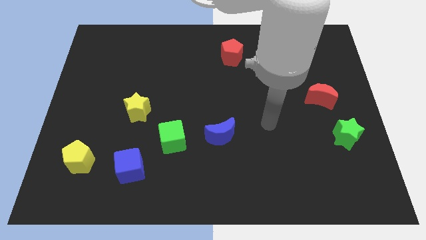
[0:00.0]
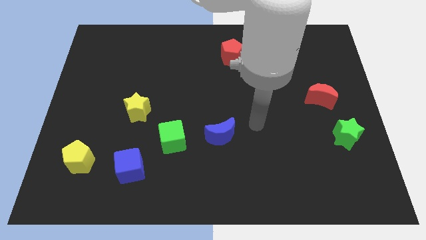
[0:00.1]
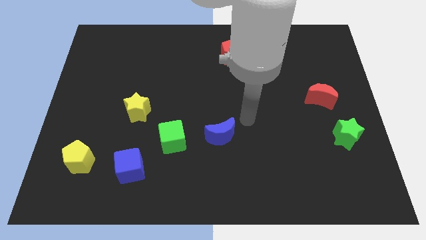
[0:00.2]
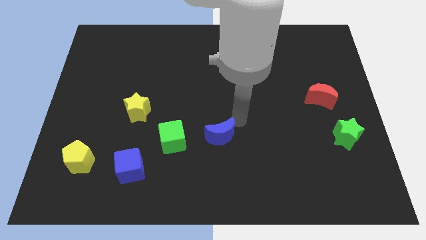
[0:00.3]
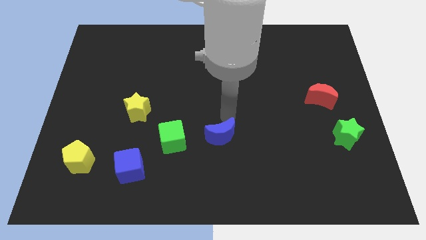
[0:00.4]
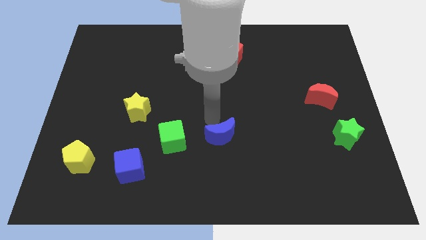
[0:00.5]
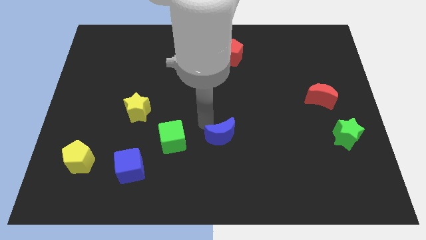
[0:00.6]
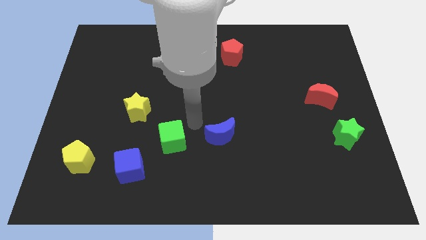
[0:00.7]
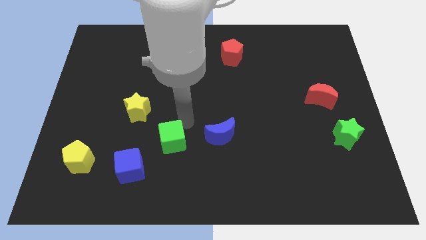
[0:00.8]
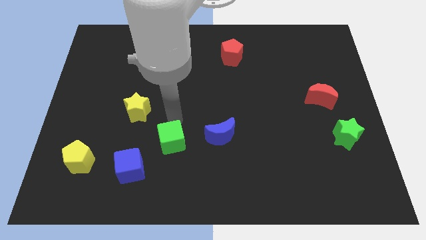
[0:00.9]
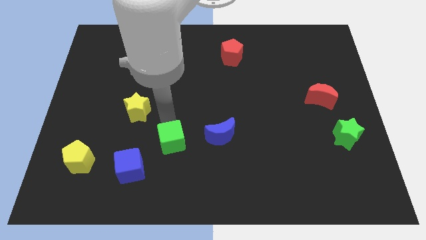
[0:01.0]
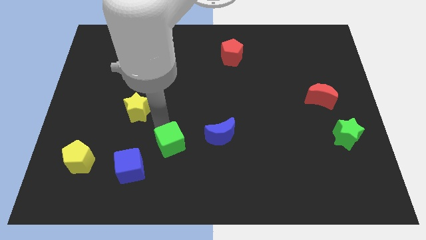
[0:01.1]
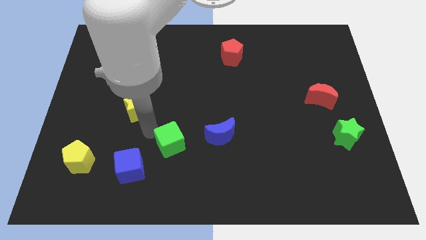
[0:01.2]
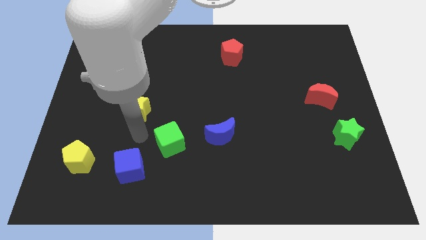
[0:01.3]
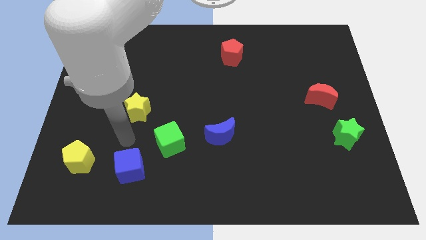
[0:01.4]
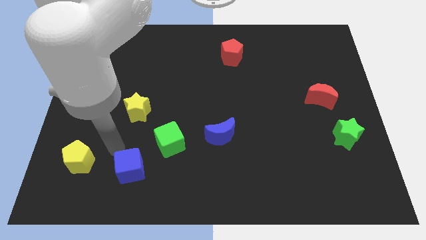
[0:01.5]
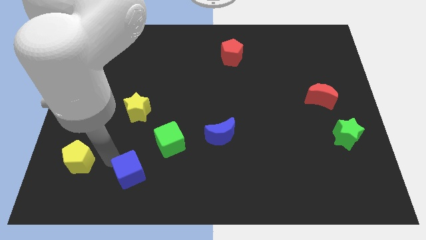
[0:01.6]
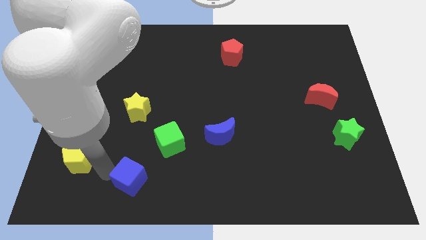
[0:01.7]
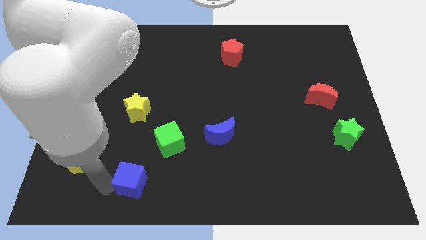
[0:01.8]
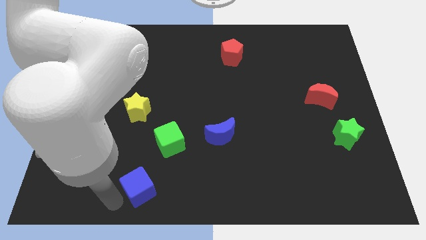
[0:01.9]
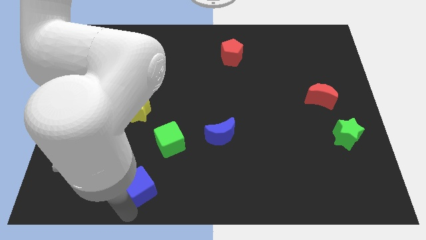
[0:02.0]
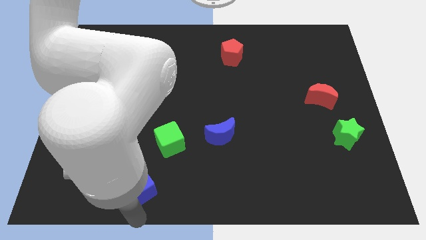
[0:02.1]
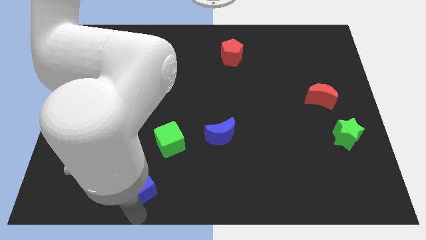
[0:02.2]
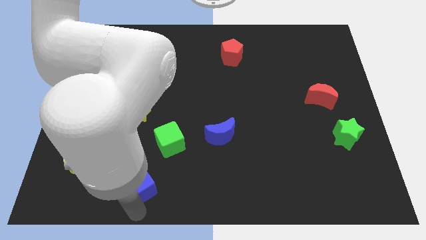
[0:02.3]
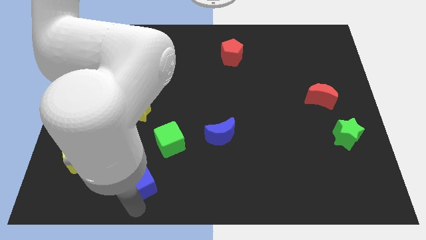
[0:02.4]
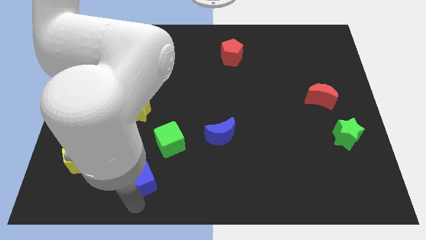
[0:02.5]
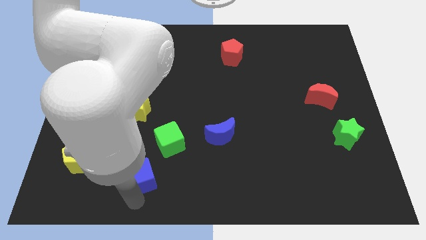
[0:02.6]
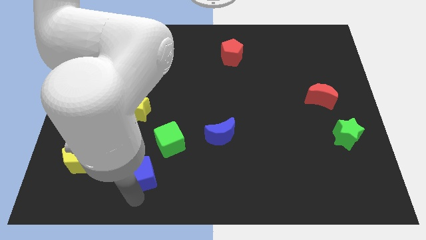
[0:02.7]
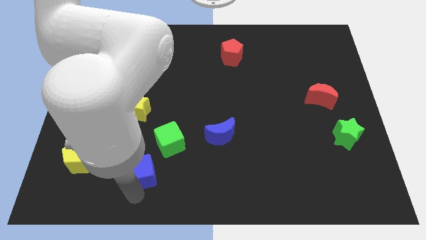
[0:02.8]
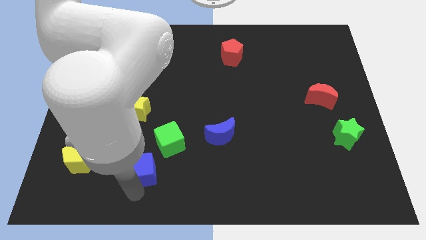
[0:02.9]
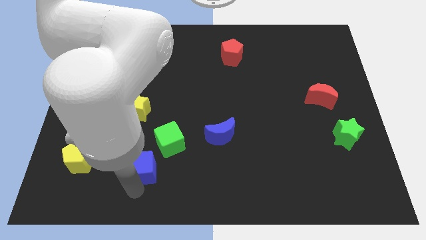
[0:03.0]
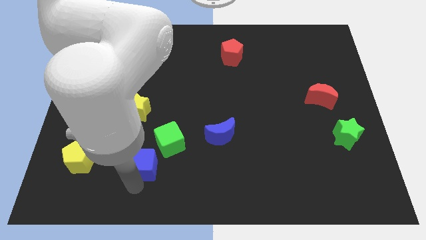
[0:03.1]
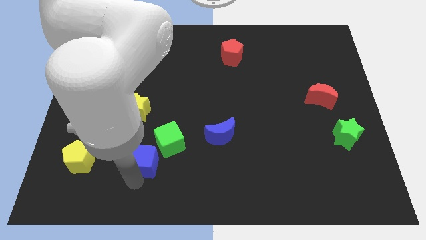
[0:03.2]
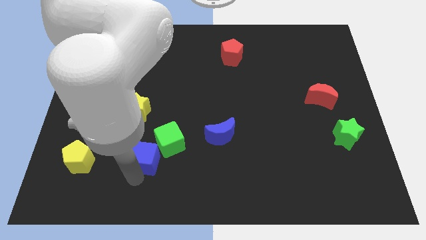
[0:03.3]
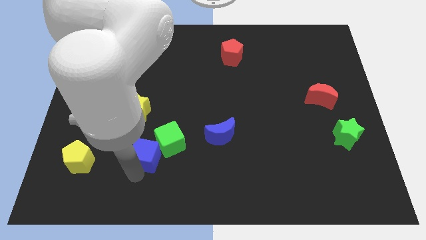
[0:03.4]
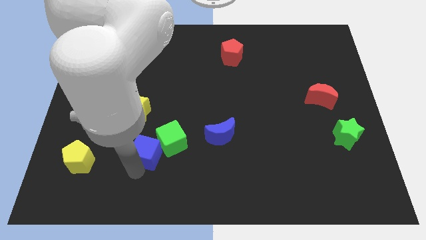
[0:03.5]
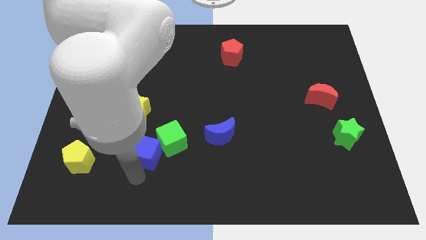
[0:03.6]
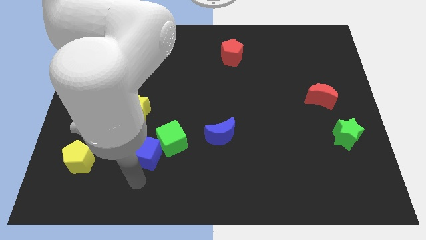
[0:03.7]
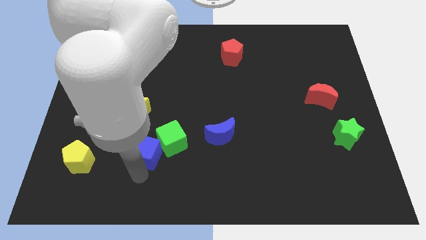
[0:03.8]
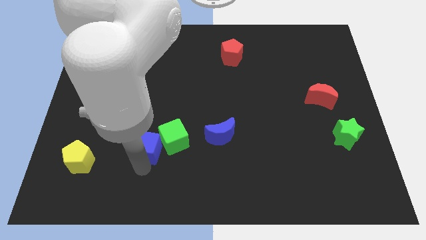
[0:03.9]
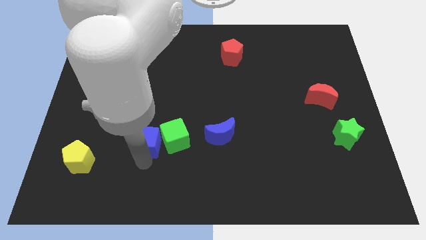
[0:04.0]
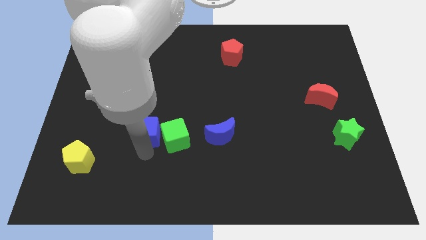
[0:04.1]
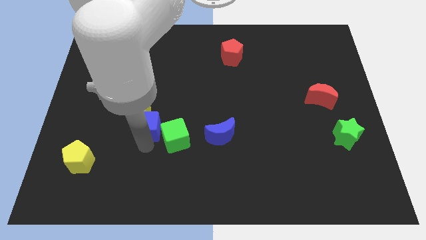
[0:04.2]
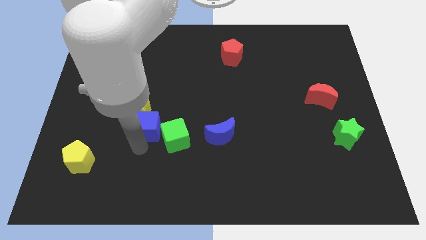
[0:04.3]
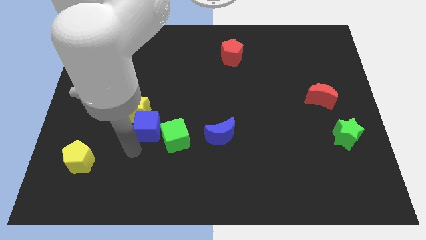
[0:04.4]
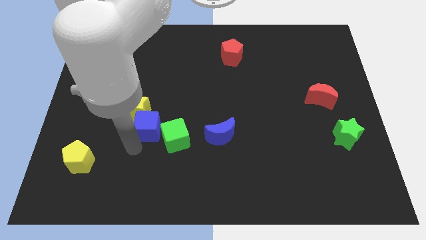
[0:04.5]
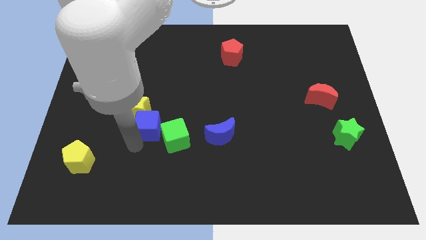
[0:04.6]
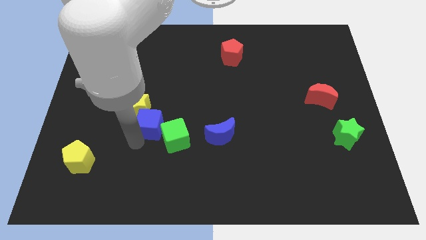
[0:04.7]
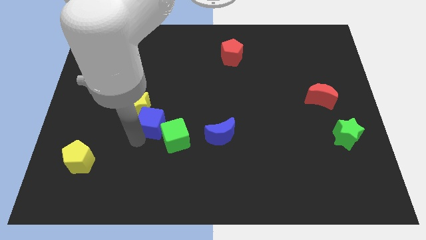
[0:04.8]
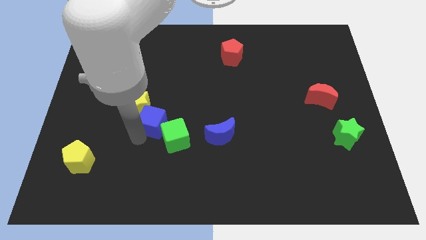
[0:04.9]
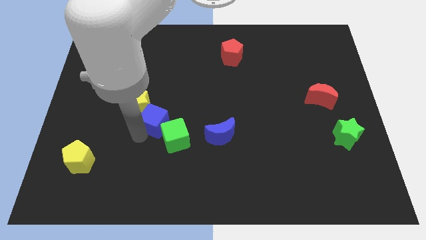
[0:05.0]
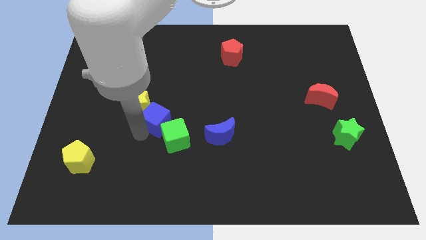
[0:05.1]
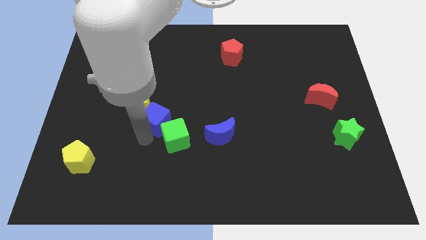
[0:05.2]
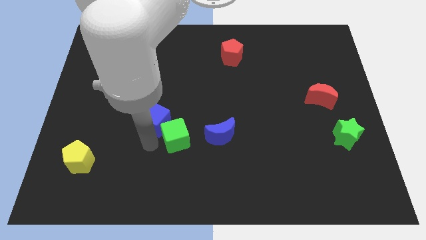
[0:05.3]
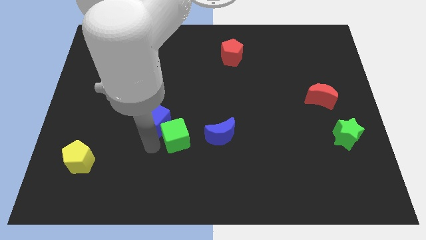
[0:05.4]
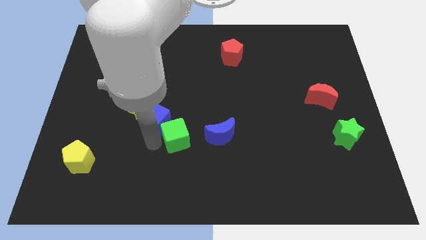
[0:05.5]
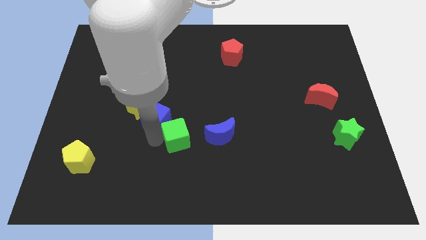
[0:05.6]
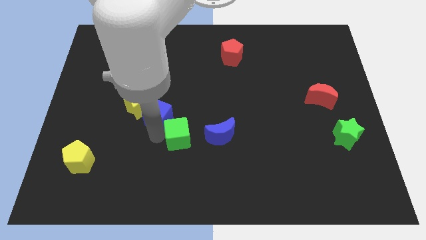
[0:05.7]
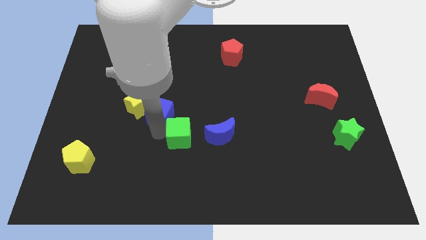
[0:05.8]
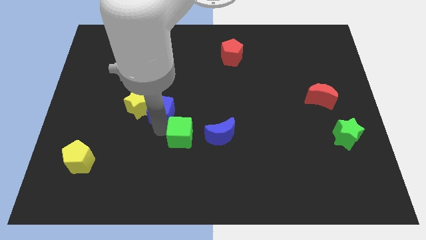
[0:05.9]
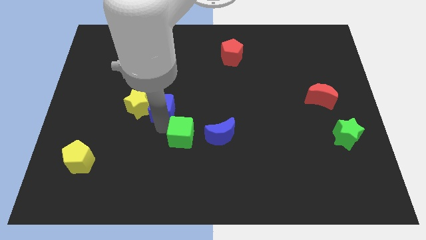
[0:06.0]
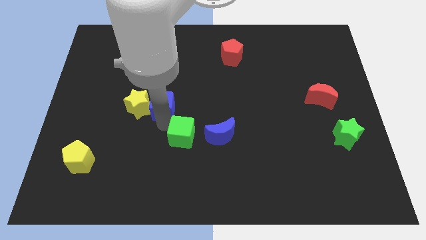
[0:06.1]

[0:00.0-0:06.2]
push the blue cube to the top right of the yellow star

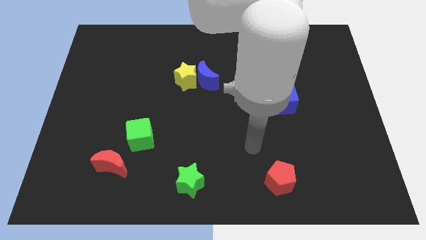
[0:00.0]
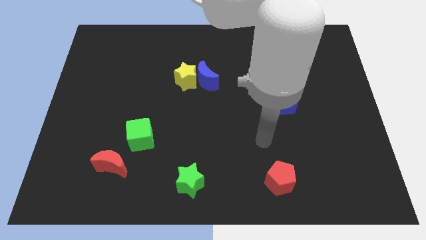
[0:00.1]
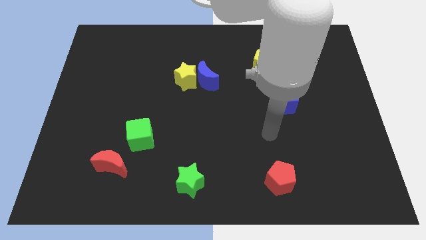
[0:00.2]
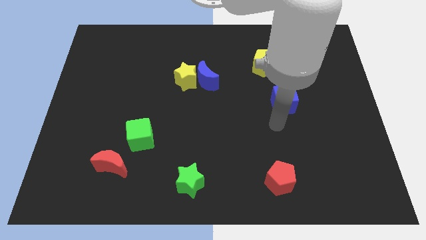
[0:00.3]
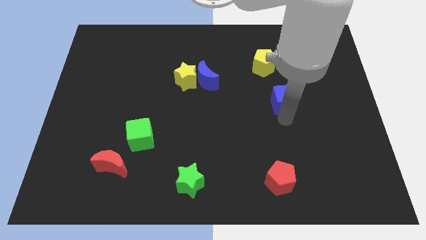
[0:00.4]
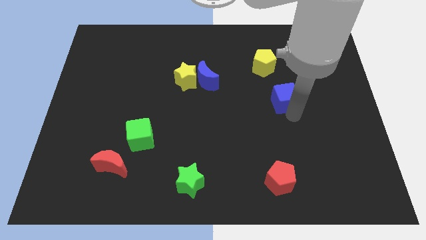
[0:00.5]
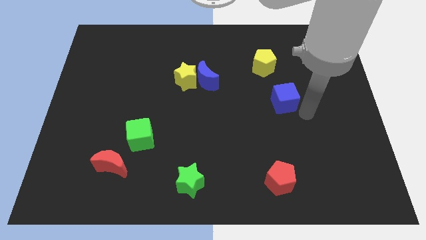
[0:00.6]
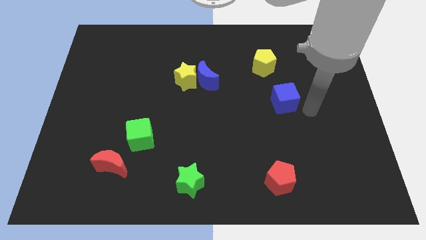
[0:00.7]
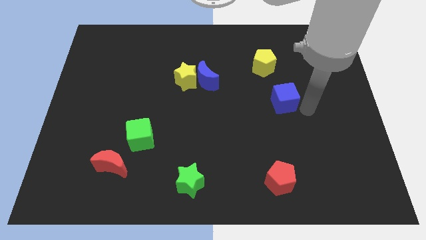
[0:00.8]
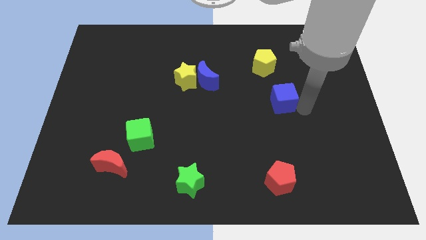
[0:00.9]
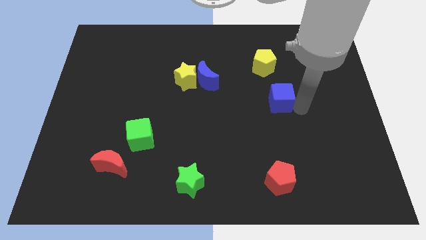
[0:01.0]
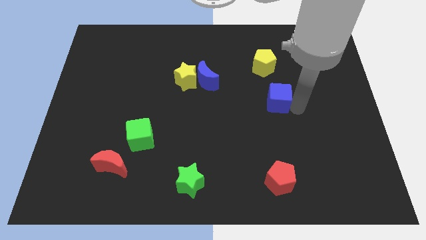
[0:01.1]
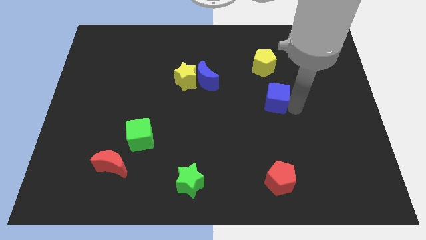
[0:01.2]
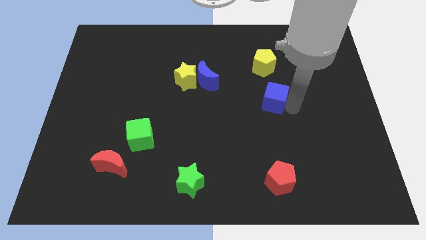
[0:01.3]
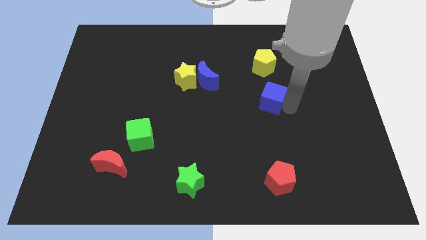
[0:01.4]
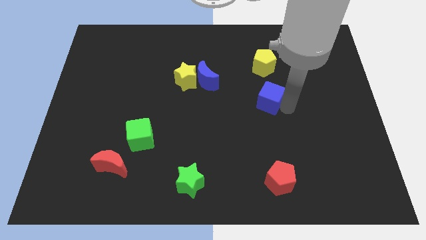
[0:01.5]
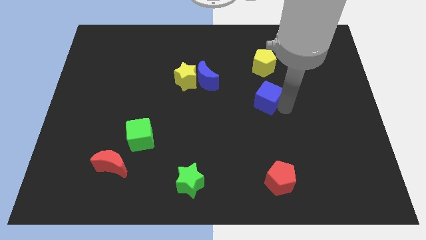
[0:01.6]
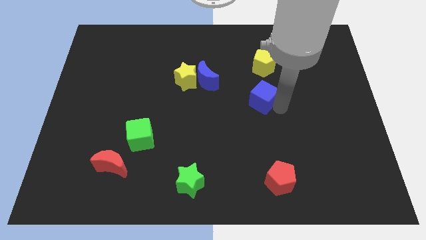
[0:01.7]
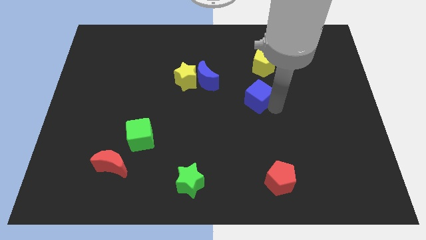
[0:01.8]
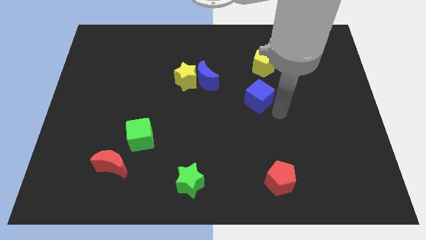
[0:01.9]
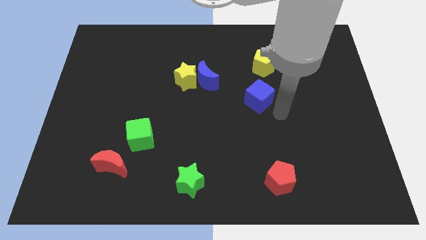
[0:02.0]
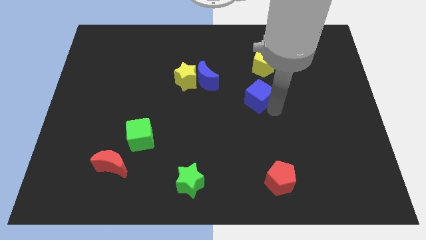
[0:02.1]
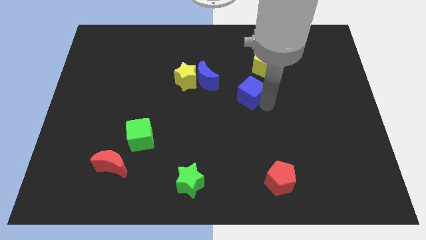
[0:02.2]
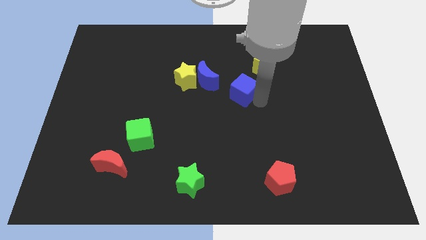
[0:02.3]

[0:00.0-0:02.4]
put the blue cube right of the yellow star
